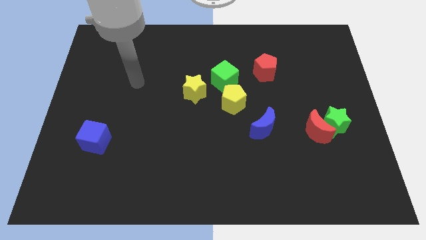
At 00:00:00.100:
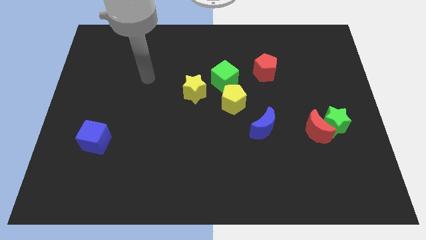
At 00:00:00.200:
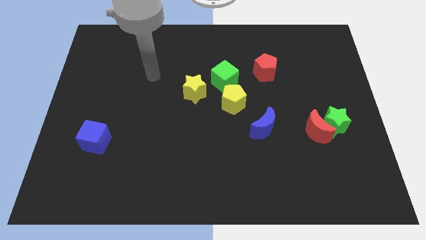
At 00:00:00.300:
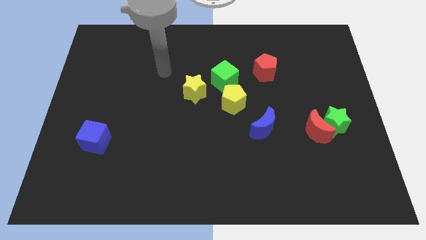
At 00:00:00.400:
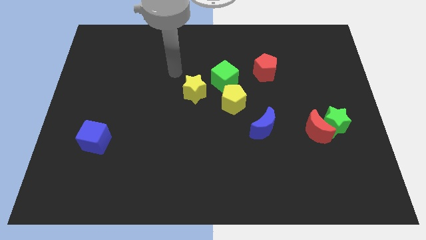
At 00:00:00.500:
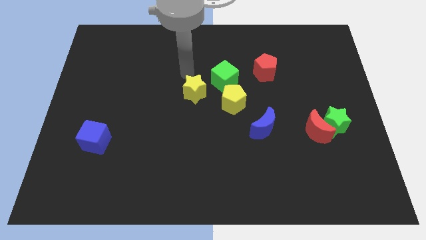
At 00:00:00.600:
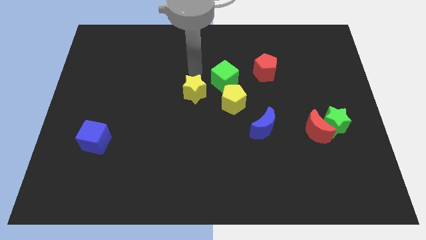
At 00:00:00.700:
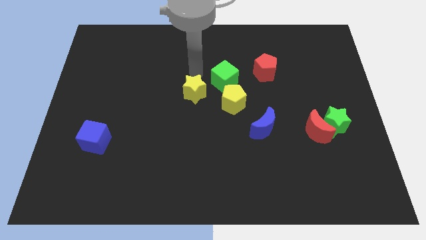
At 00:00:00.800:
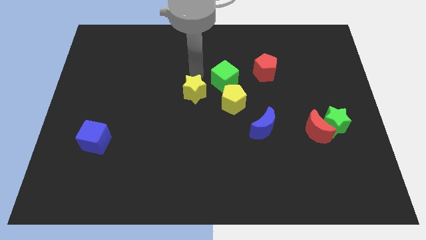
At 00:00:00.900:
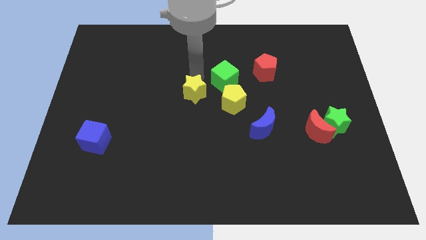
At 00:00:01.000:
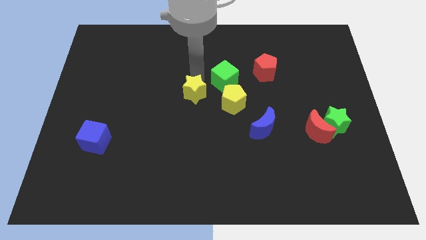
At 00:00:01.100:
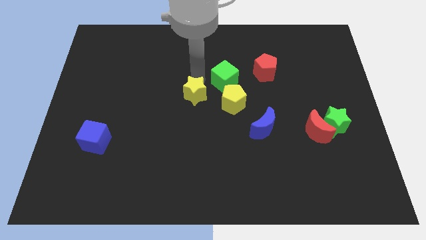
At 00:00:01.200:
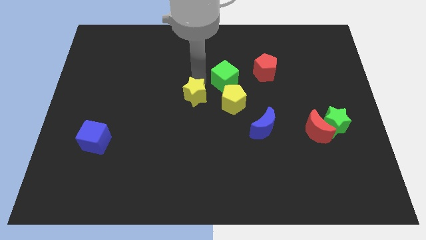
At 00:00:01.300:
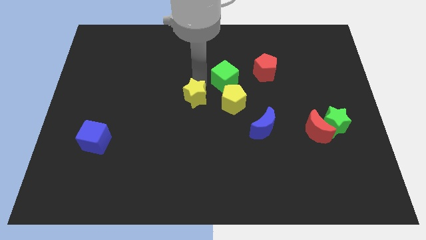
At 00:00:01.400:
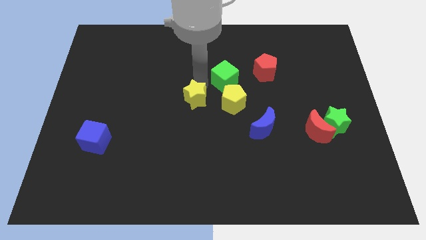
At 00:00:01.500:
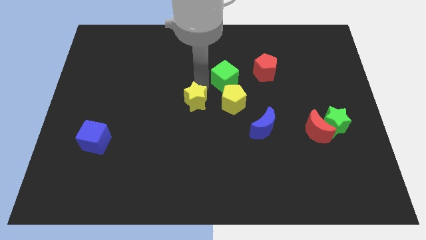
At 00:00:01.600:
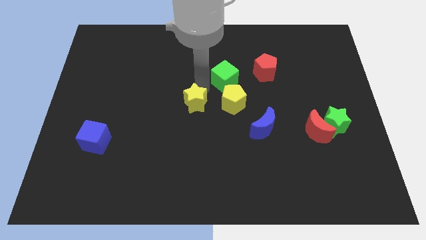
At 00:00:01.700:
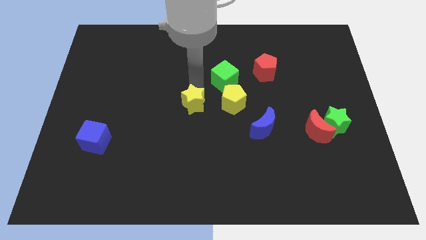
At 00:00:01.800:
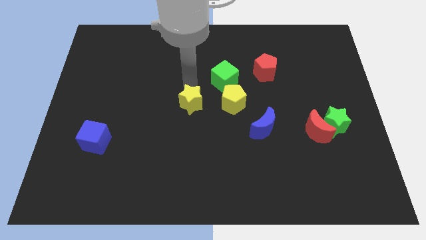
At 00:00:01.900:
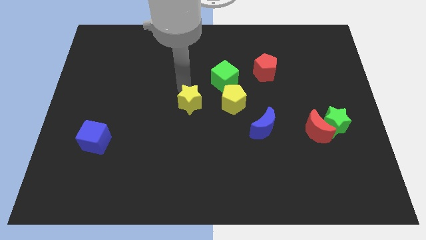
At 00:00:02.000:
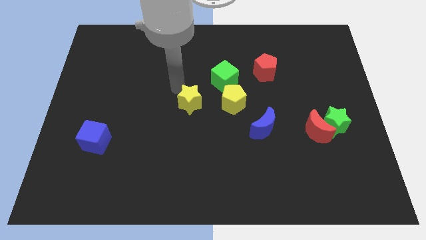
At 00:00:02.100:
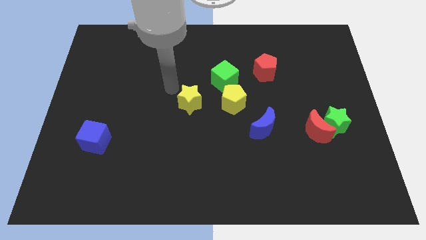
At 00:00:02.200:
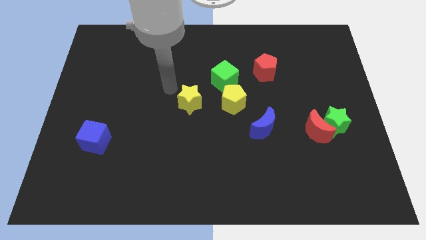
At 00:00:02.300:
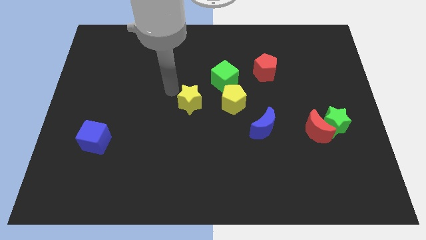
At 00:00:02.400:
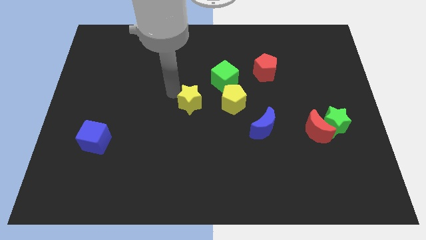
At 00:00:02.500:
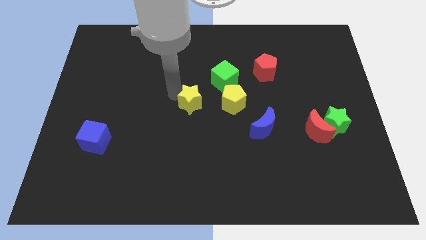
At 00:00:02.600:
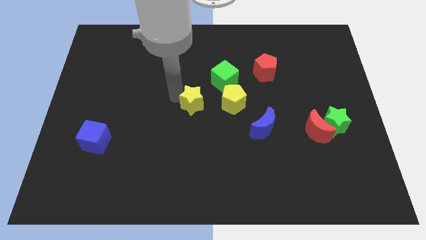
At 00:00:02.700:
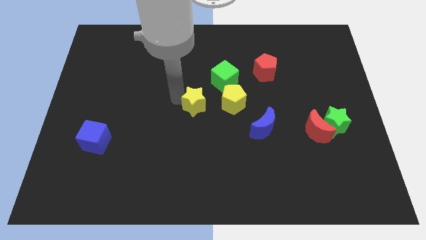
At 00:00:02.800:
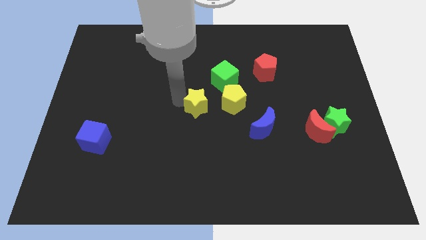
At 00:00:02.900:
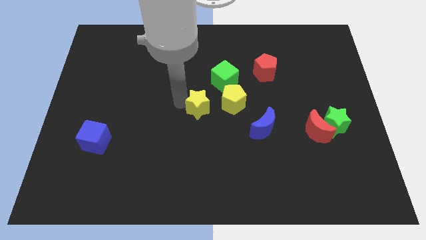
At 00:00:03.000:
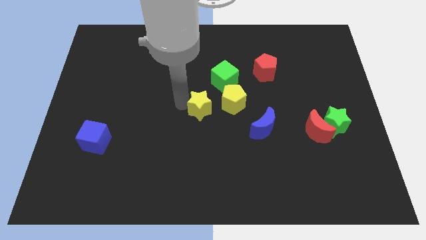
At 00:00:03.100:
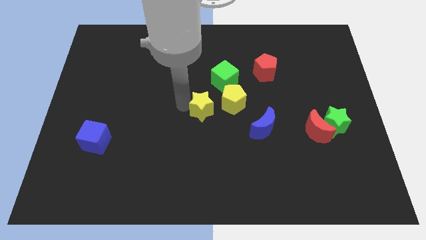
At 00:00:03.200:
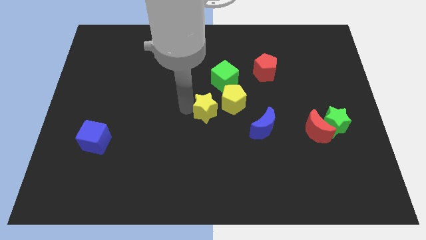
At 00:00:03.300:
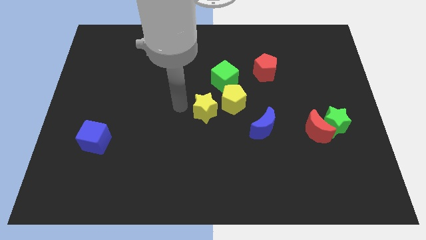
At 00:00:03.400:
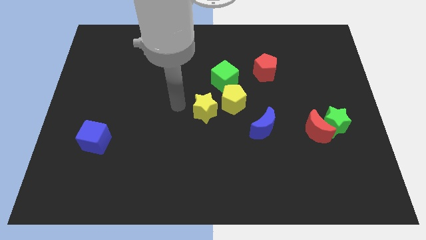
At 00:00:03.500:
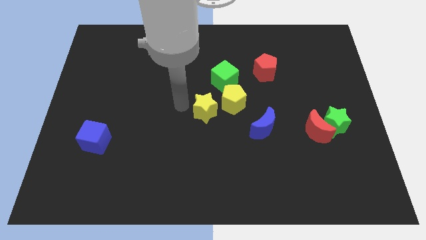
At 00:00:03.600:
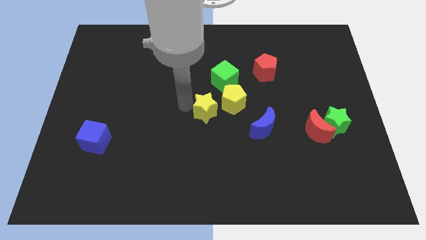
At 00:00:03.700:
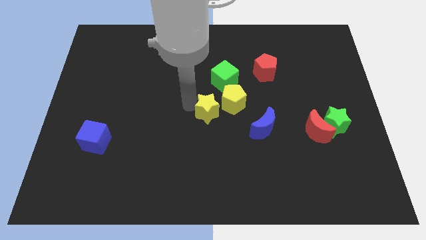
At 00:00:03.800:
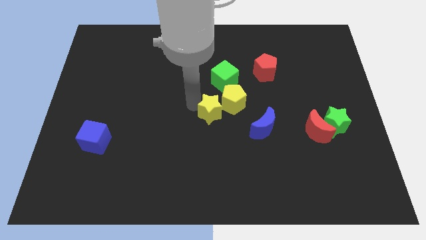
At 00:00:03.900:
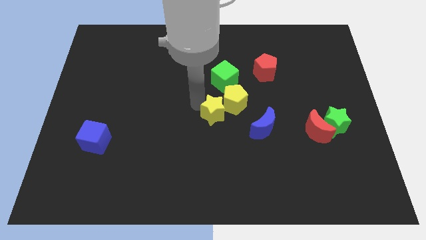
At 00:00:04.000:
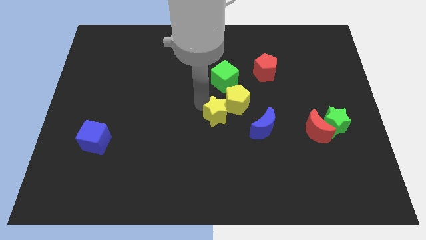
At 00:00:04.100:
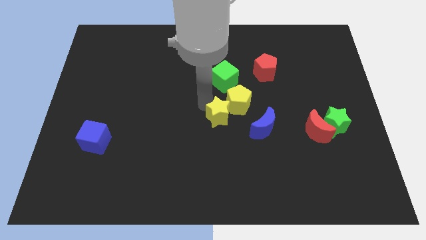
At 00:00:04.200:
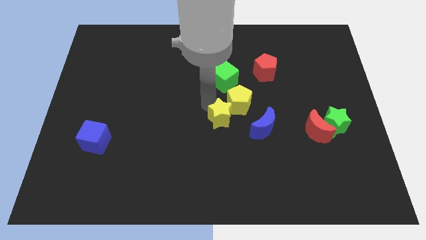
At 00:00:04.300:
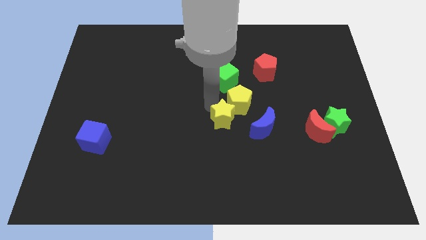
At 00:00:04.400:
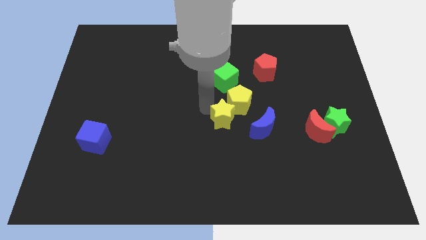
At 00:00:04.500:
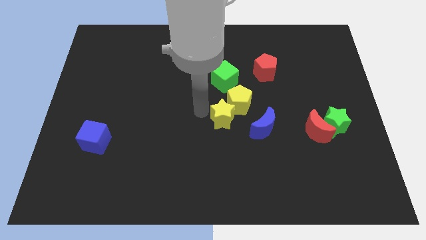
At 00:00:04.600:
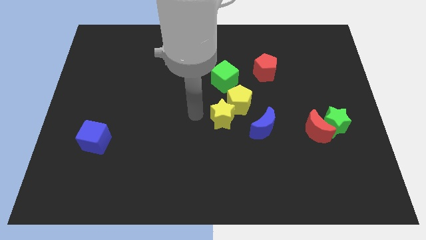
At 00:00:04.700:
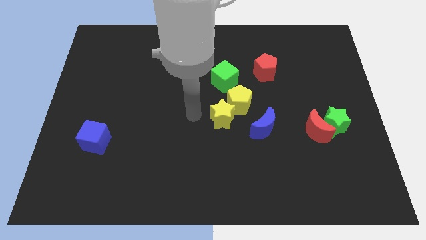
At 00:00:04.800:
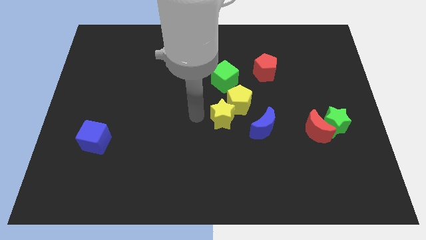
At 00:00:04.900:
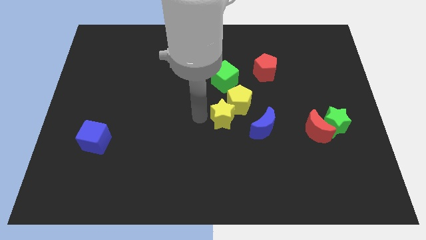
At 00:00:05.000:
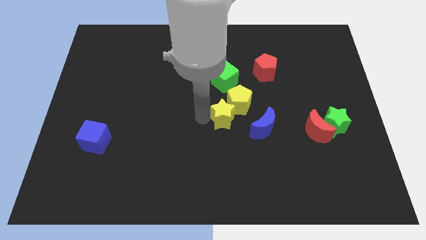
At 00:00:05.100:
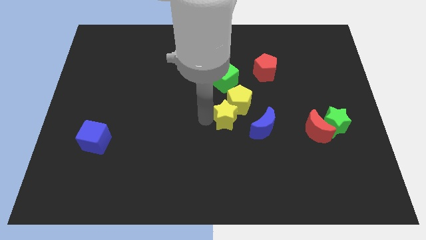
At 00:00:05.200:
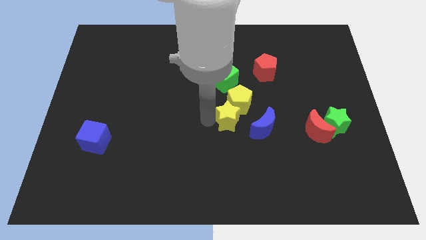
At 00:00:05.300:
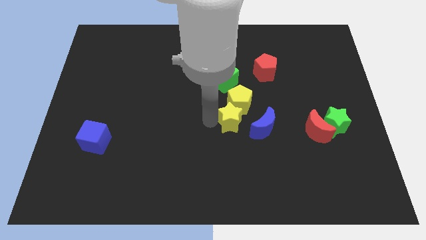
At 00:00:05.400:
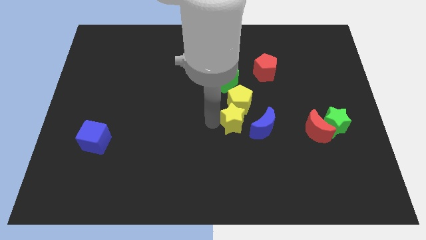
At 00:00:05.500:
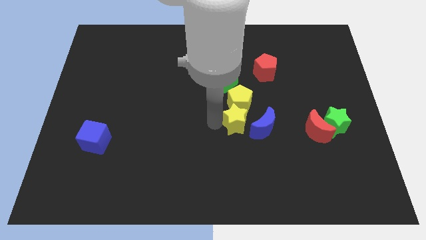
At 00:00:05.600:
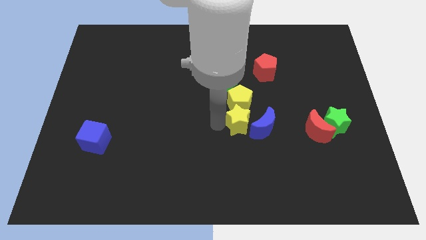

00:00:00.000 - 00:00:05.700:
move the yellow star towards the blue moon

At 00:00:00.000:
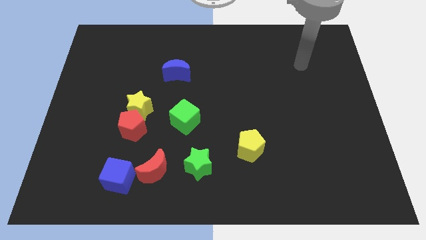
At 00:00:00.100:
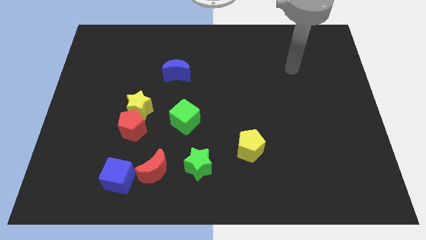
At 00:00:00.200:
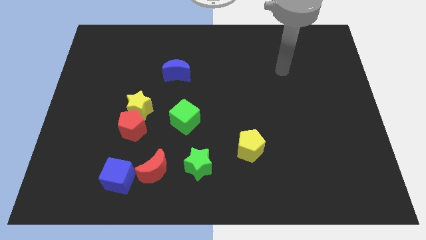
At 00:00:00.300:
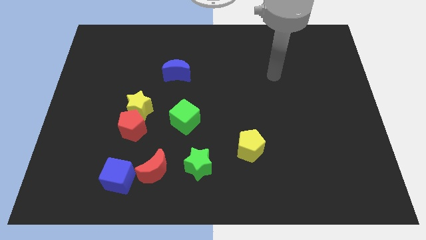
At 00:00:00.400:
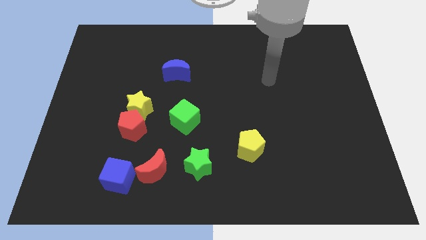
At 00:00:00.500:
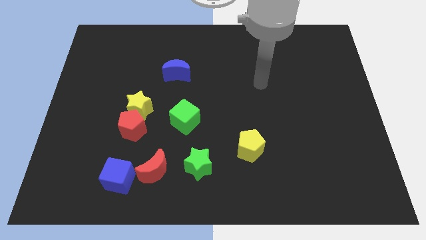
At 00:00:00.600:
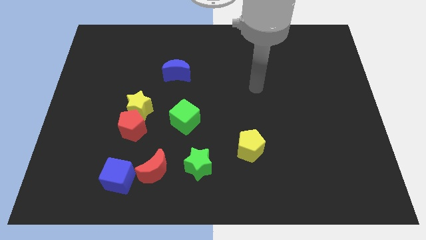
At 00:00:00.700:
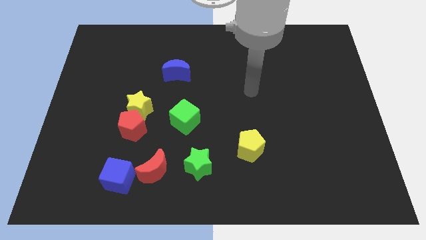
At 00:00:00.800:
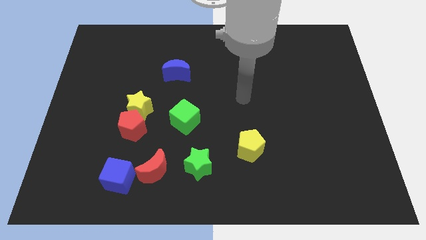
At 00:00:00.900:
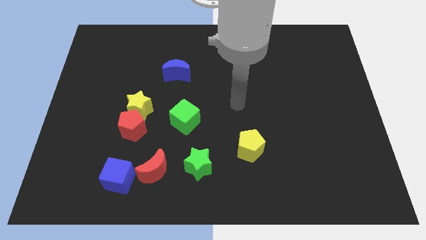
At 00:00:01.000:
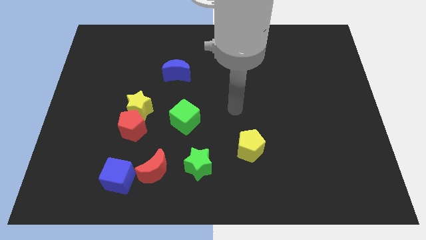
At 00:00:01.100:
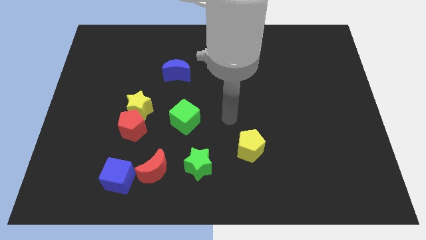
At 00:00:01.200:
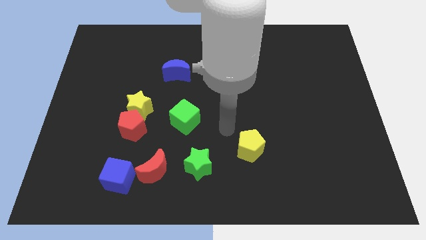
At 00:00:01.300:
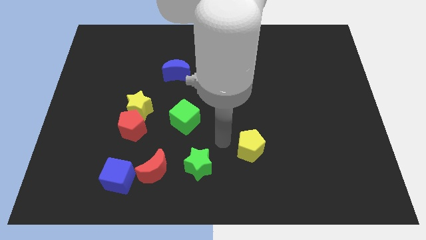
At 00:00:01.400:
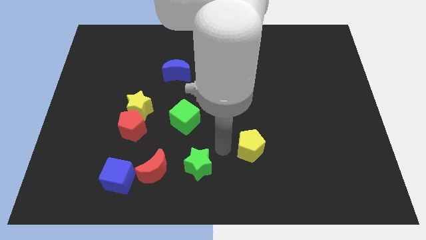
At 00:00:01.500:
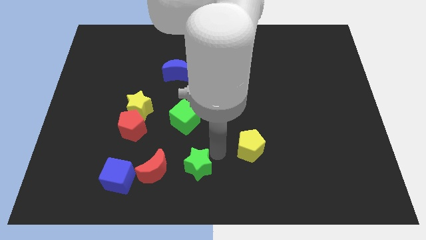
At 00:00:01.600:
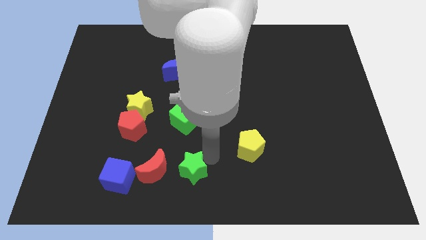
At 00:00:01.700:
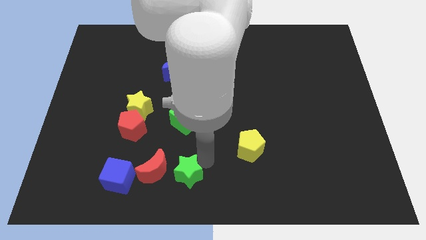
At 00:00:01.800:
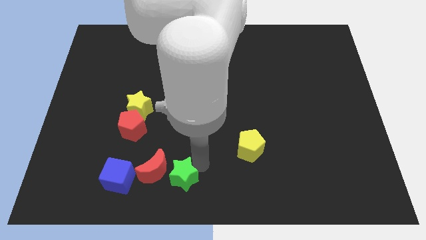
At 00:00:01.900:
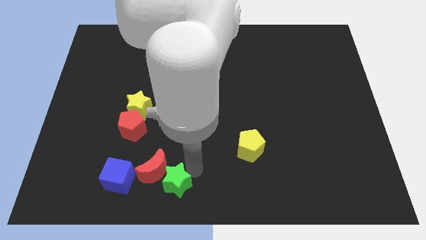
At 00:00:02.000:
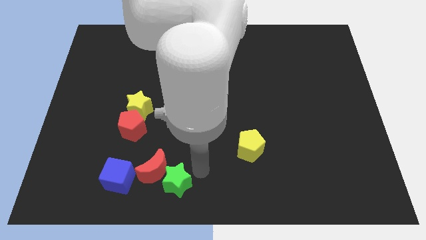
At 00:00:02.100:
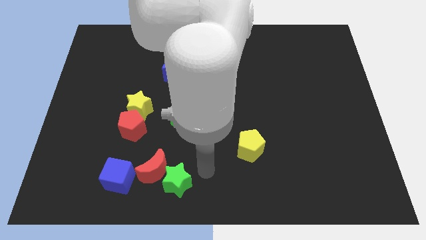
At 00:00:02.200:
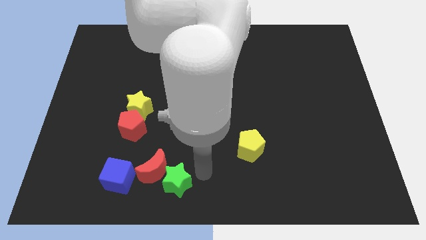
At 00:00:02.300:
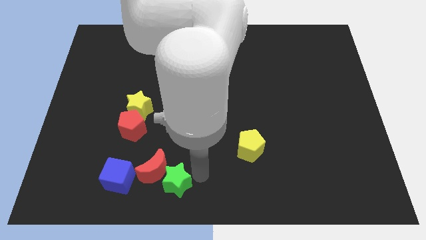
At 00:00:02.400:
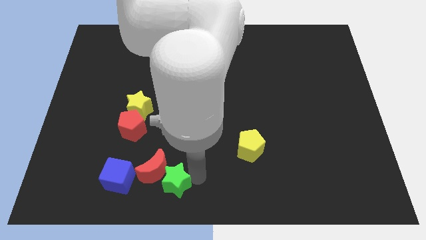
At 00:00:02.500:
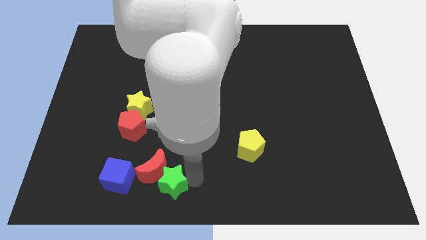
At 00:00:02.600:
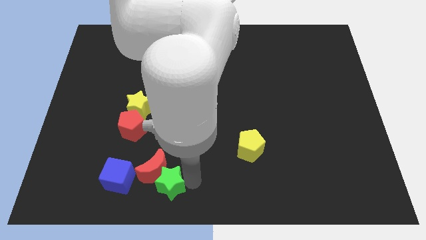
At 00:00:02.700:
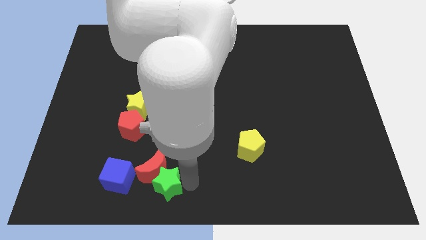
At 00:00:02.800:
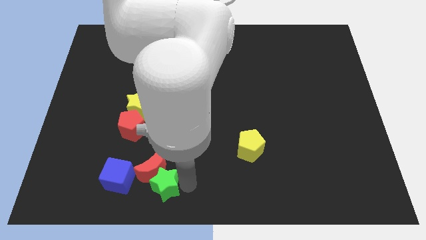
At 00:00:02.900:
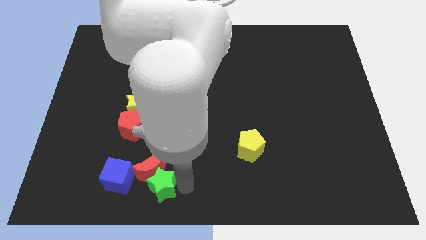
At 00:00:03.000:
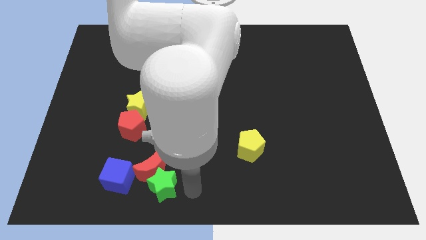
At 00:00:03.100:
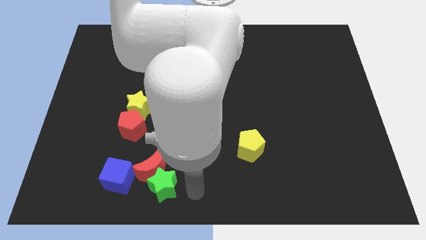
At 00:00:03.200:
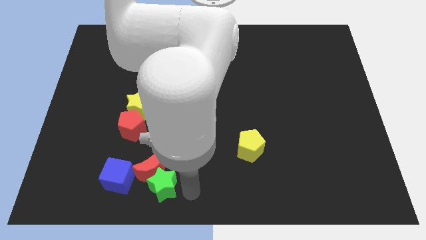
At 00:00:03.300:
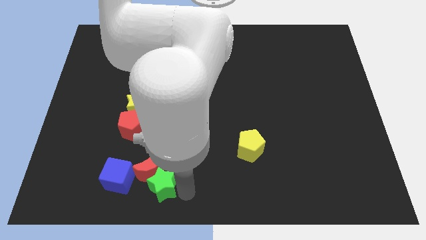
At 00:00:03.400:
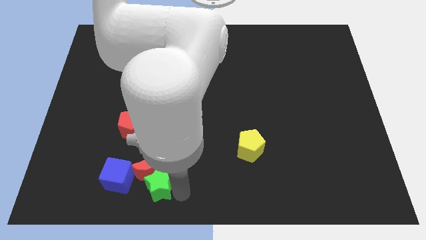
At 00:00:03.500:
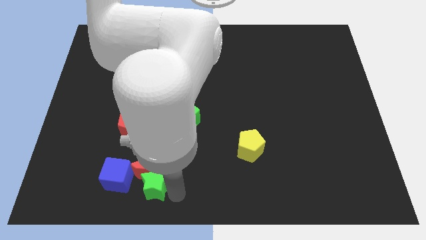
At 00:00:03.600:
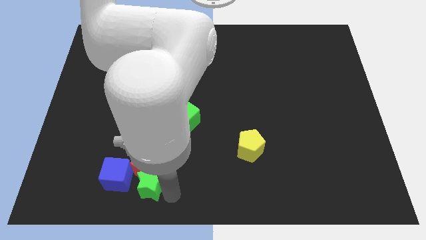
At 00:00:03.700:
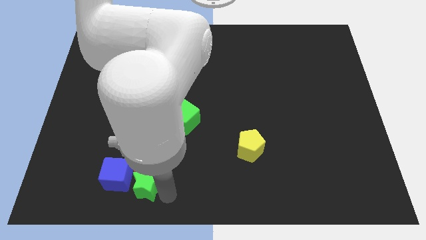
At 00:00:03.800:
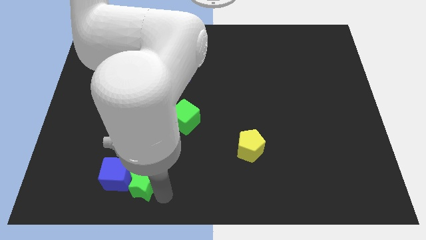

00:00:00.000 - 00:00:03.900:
put the green star close to the blue cube
